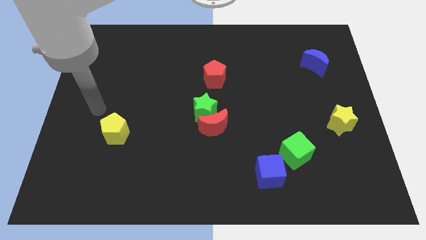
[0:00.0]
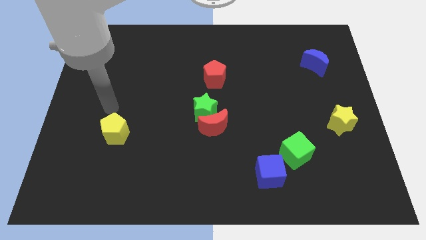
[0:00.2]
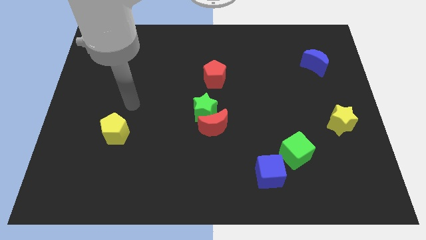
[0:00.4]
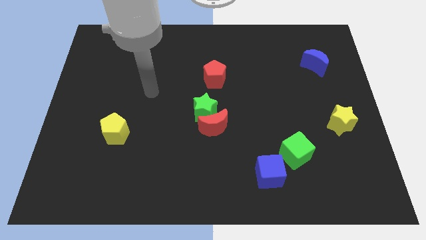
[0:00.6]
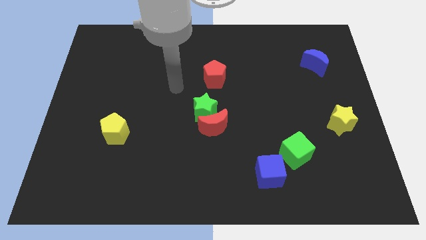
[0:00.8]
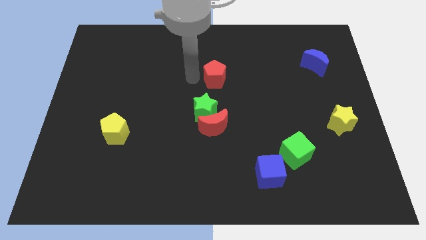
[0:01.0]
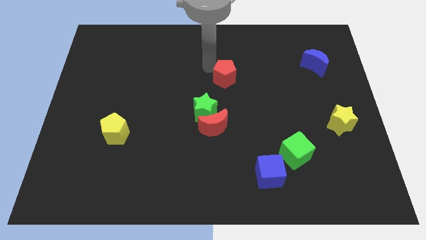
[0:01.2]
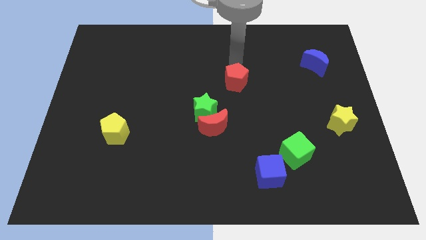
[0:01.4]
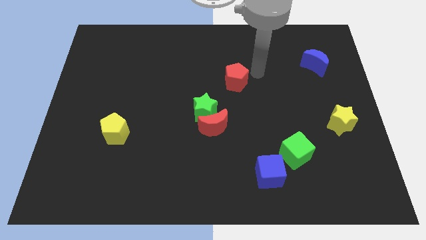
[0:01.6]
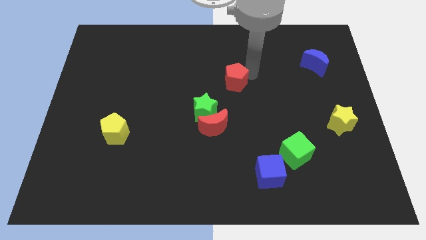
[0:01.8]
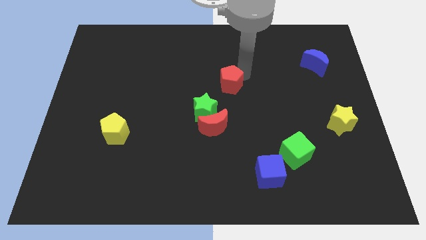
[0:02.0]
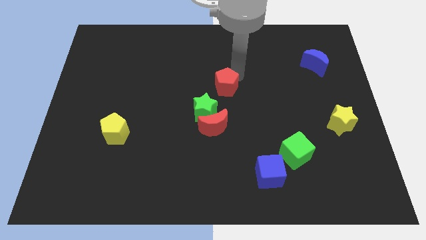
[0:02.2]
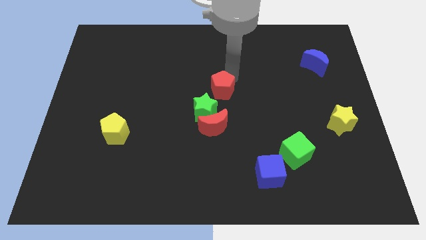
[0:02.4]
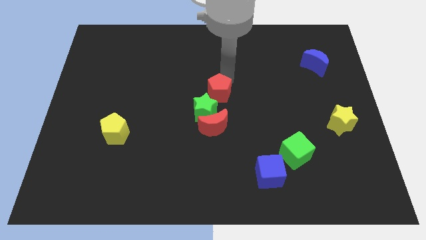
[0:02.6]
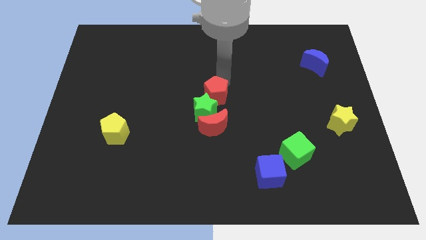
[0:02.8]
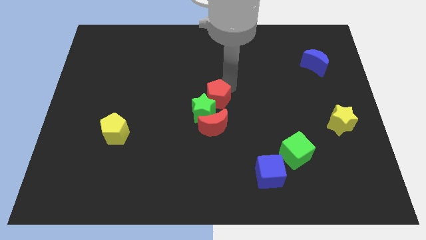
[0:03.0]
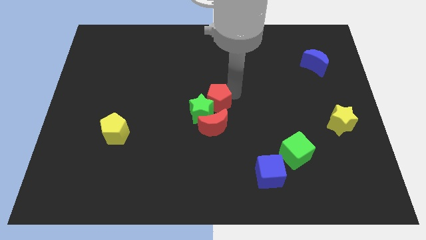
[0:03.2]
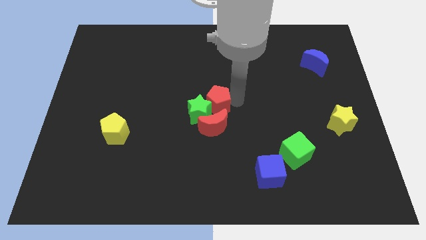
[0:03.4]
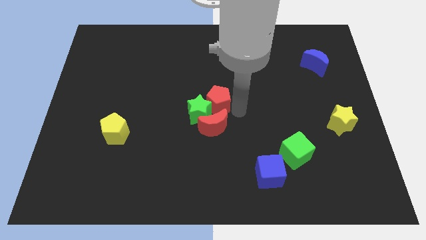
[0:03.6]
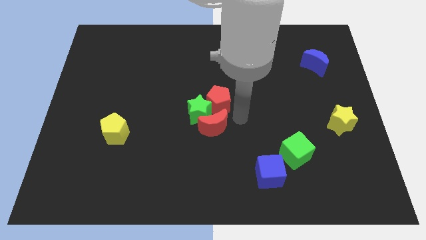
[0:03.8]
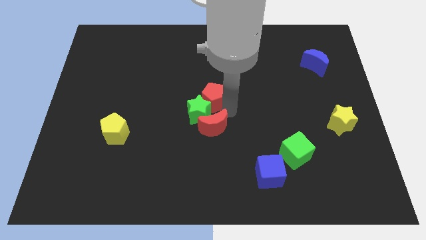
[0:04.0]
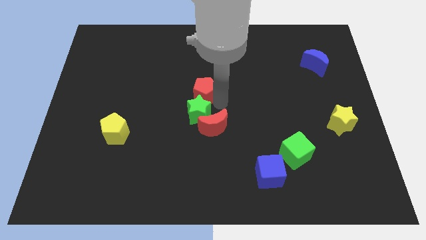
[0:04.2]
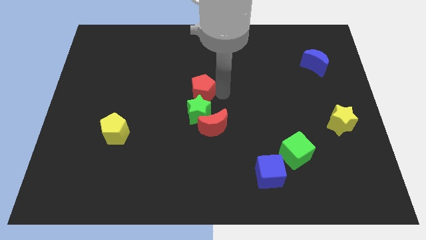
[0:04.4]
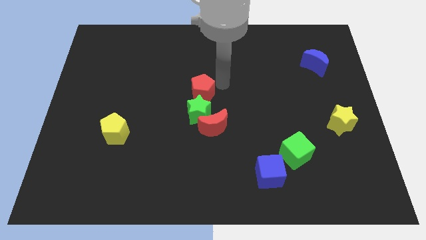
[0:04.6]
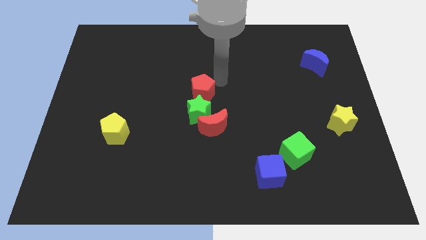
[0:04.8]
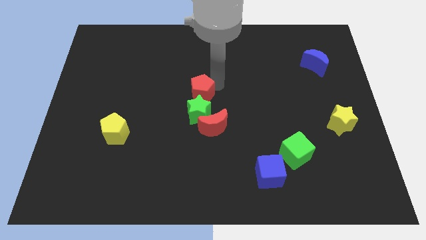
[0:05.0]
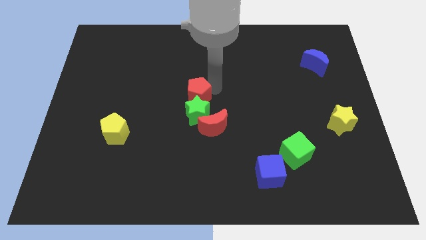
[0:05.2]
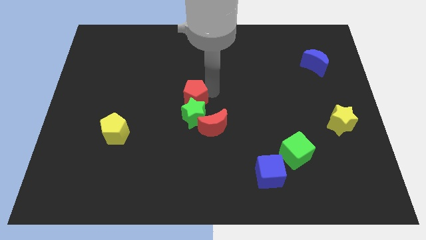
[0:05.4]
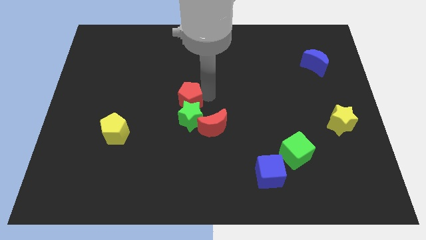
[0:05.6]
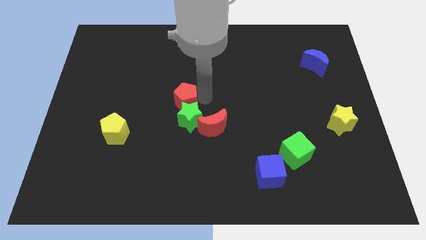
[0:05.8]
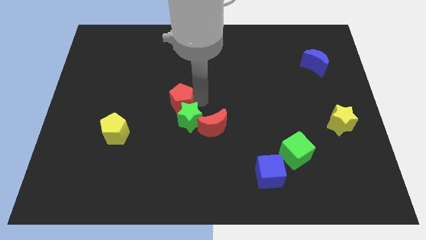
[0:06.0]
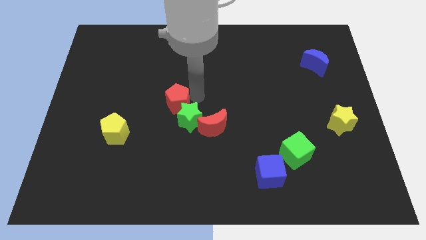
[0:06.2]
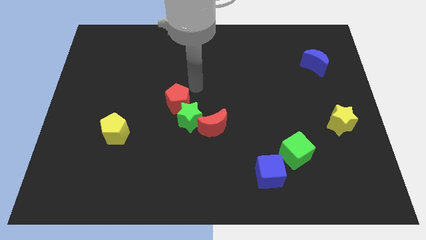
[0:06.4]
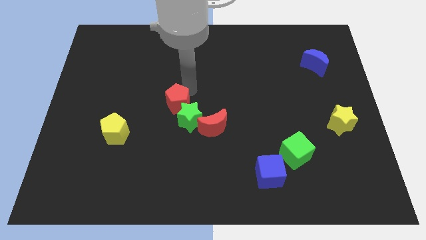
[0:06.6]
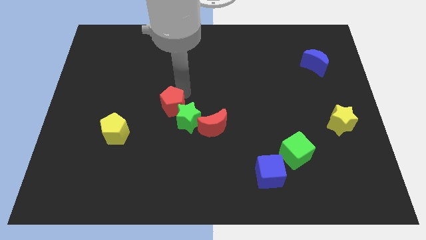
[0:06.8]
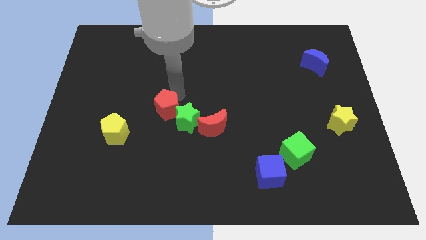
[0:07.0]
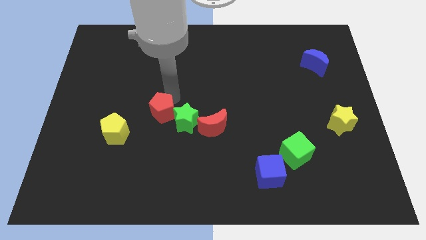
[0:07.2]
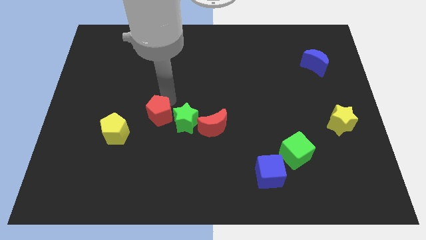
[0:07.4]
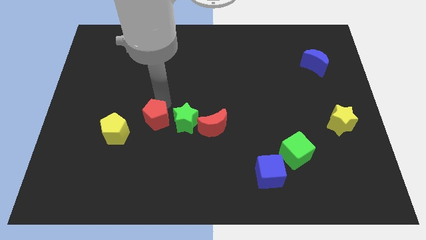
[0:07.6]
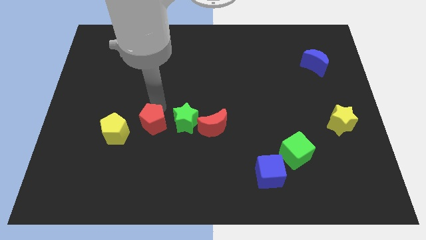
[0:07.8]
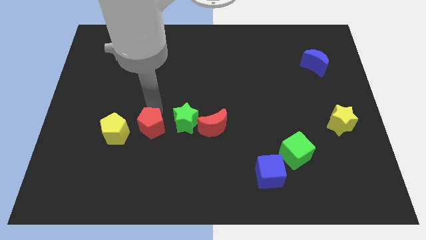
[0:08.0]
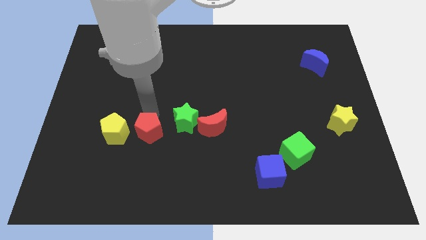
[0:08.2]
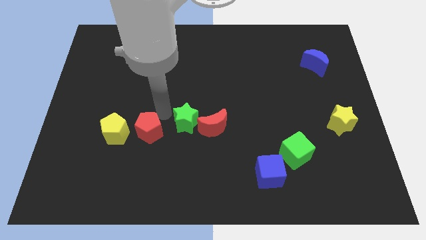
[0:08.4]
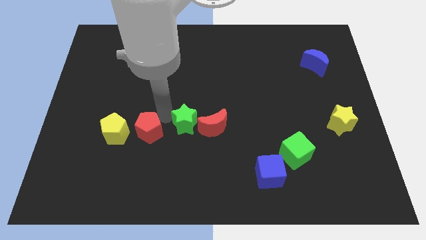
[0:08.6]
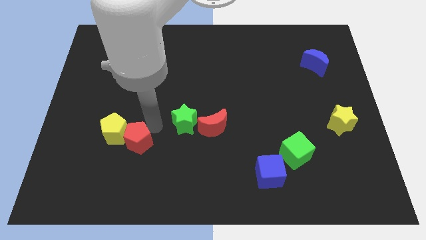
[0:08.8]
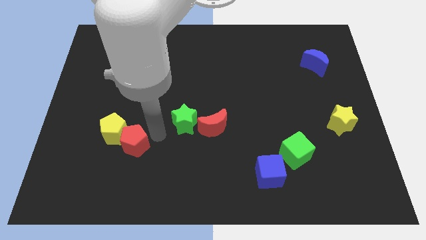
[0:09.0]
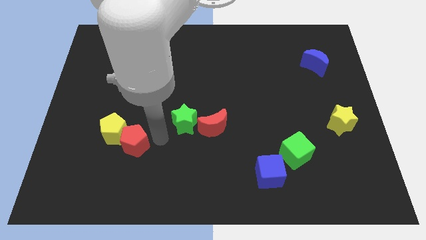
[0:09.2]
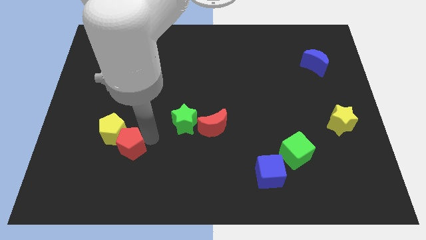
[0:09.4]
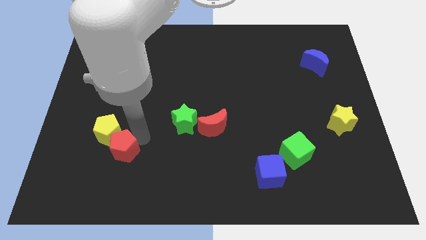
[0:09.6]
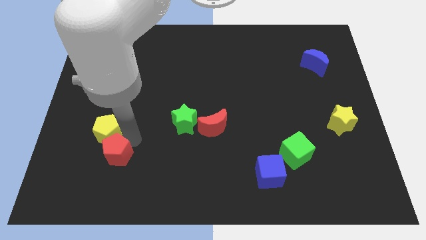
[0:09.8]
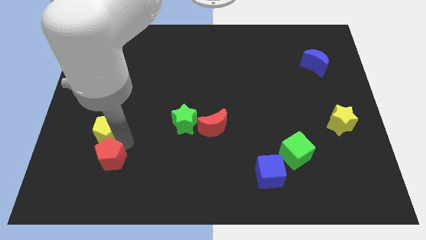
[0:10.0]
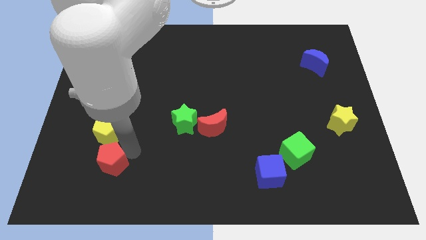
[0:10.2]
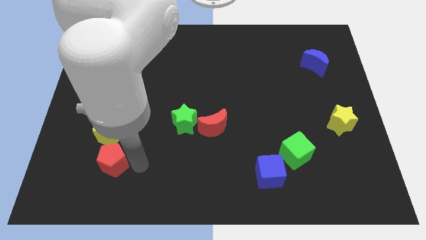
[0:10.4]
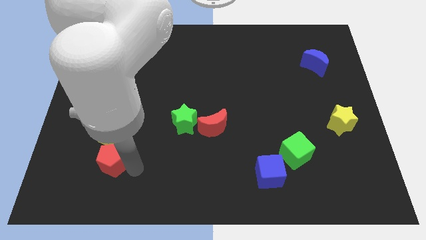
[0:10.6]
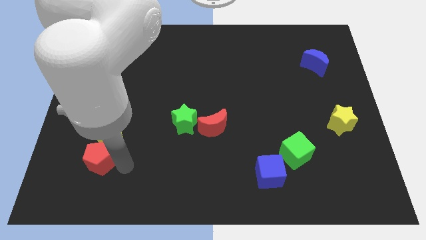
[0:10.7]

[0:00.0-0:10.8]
push the red pentagon to the bottom left side of the yellow pentagon
